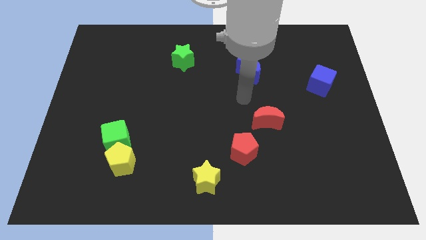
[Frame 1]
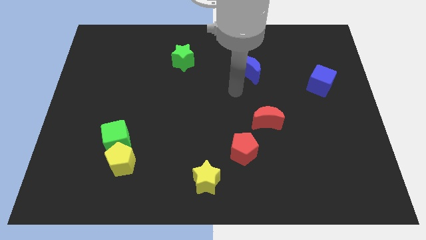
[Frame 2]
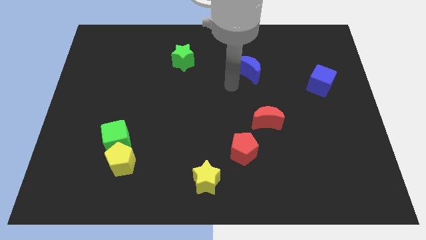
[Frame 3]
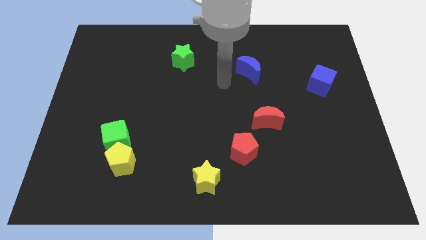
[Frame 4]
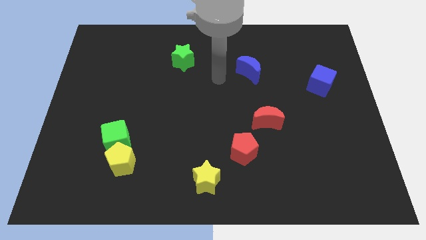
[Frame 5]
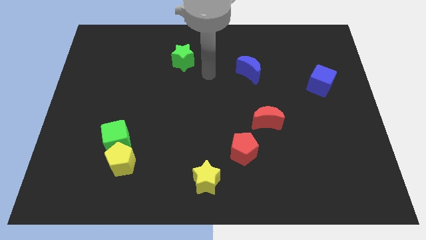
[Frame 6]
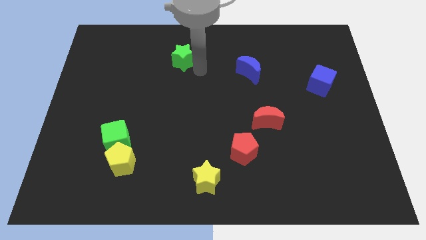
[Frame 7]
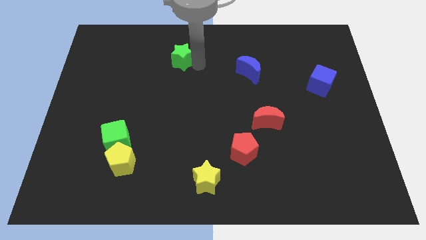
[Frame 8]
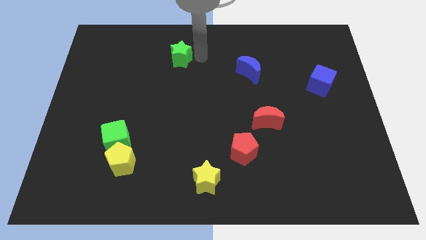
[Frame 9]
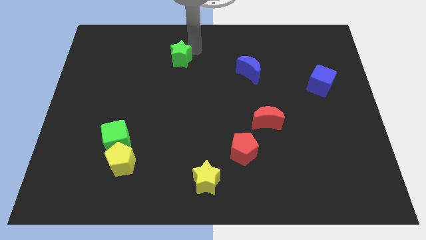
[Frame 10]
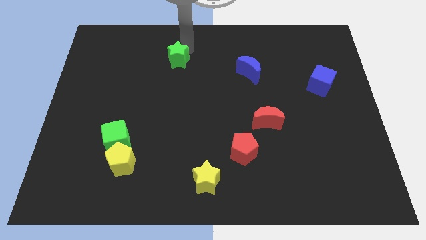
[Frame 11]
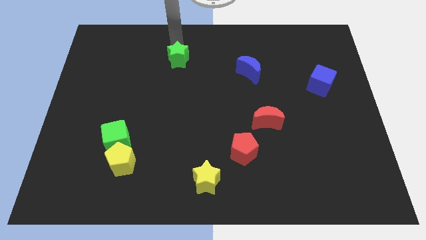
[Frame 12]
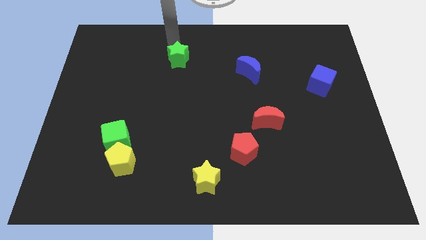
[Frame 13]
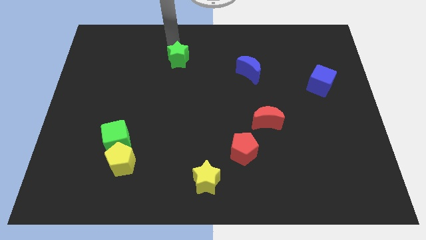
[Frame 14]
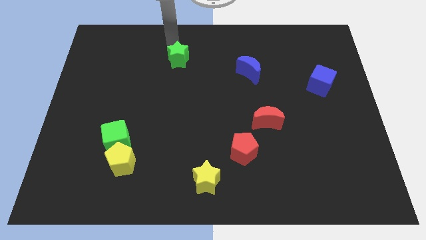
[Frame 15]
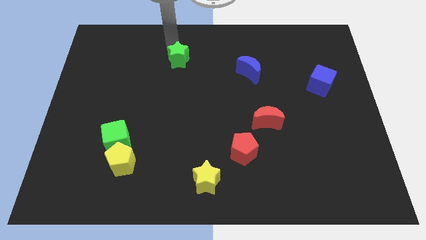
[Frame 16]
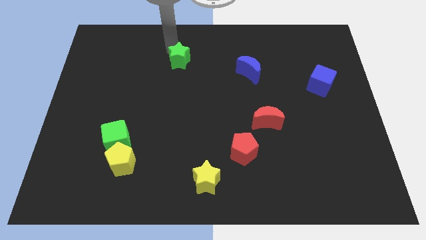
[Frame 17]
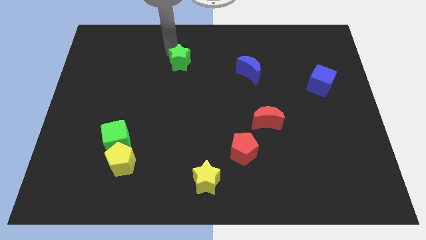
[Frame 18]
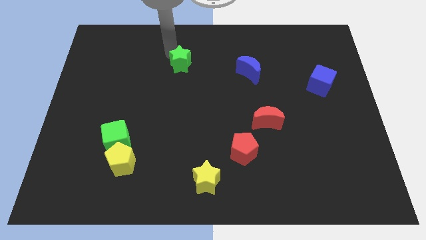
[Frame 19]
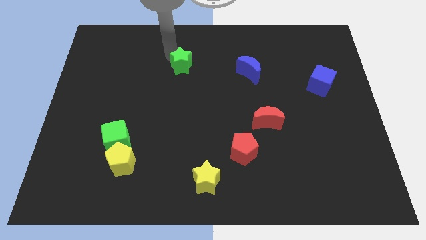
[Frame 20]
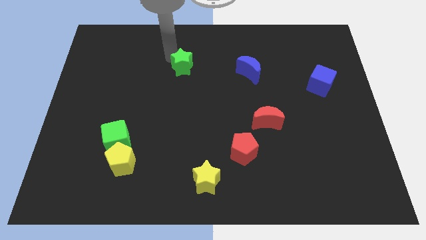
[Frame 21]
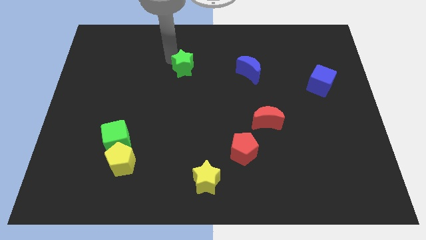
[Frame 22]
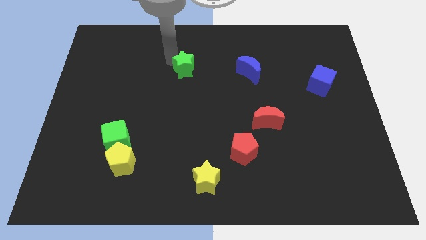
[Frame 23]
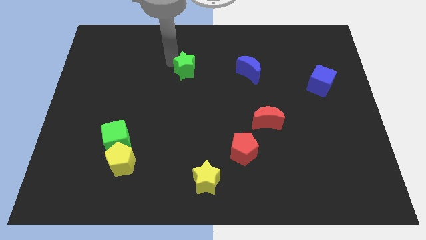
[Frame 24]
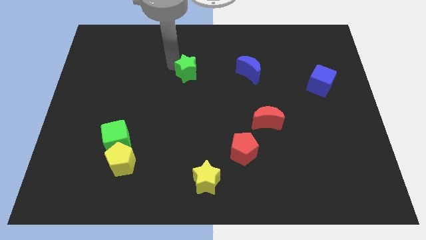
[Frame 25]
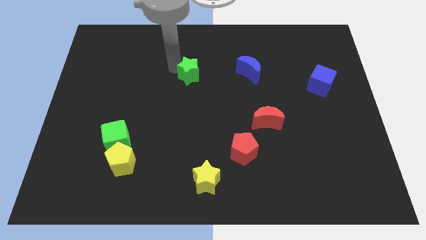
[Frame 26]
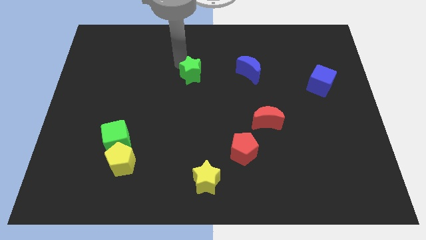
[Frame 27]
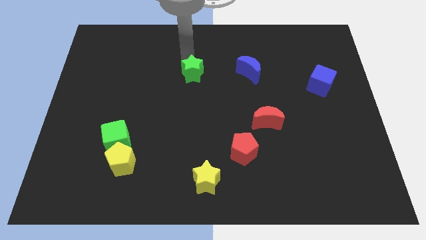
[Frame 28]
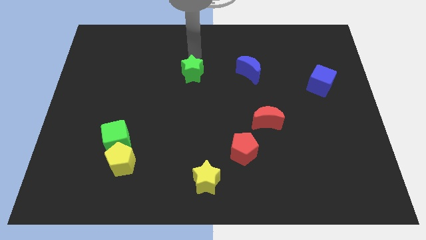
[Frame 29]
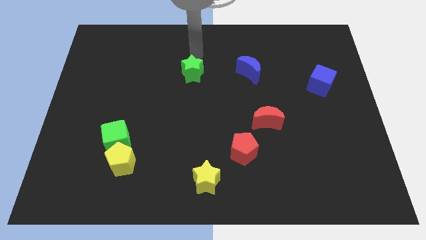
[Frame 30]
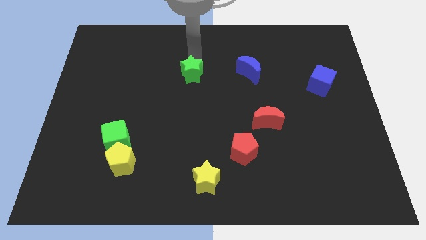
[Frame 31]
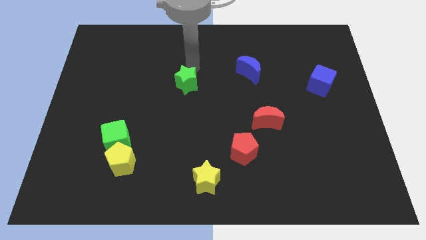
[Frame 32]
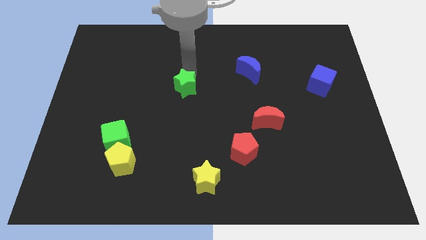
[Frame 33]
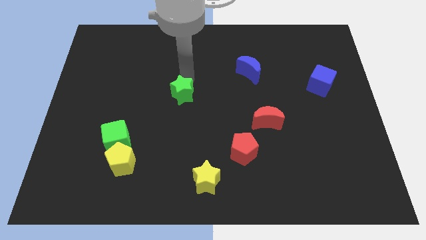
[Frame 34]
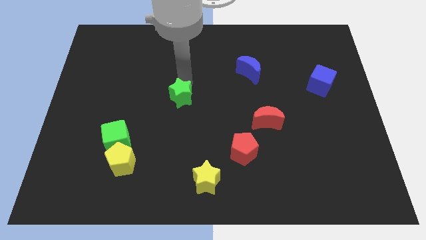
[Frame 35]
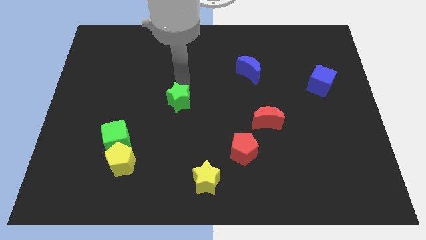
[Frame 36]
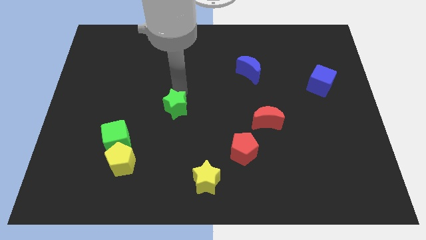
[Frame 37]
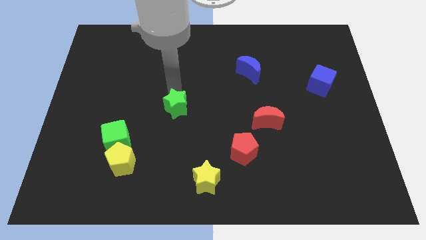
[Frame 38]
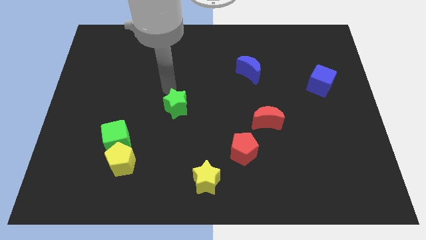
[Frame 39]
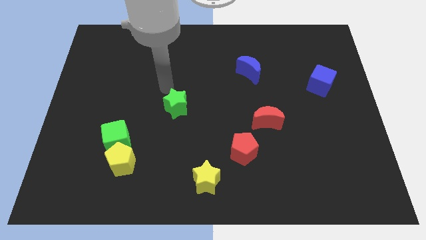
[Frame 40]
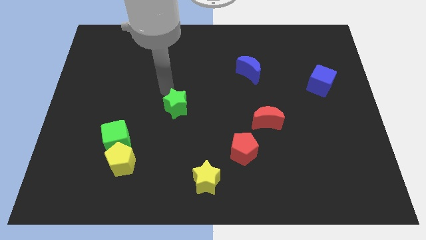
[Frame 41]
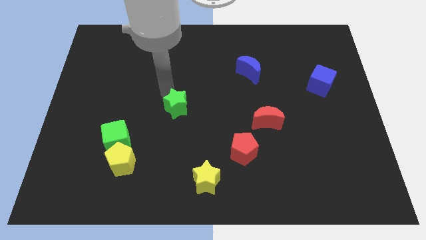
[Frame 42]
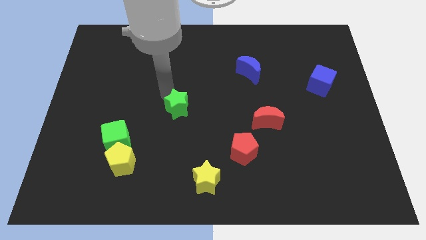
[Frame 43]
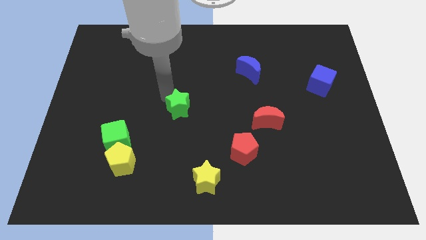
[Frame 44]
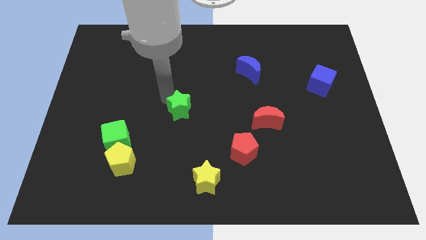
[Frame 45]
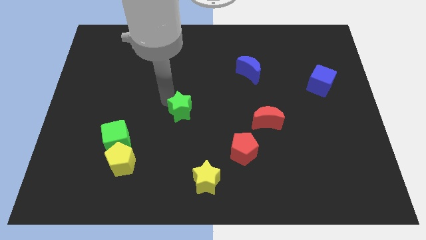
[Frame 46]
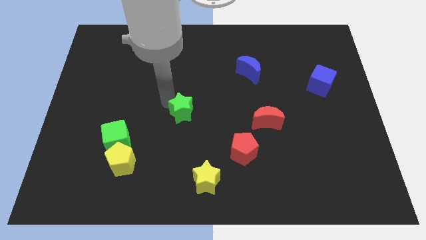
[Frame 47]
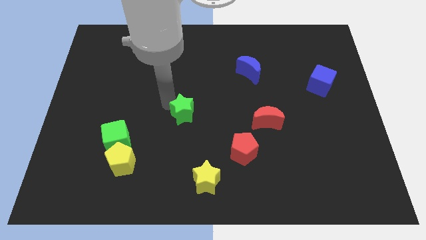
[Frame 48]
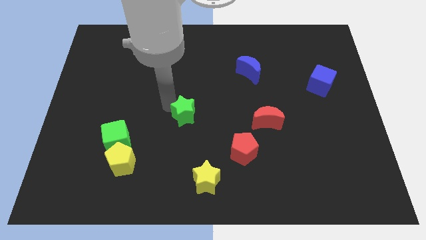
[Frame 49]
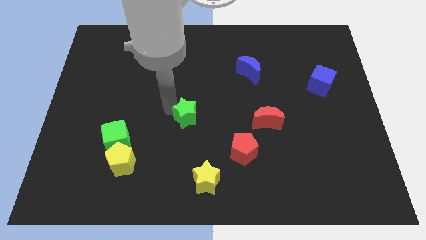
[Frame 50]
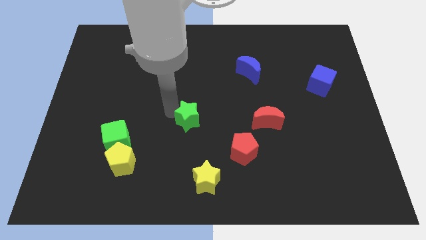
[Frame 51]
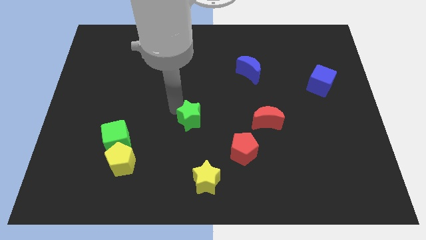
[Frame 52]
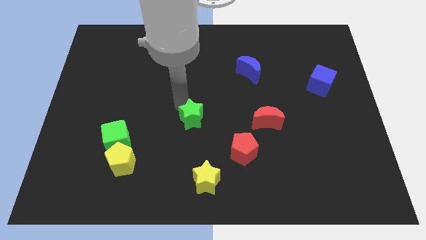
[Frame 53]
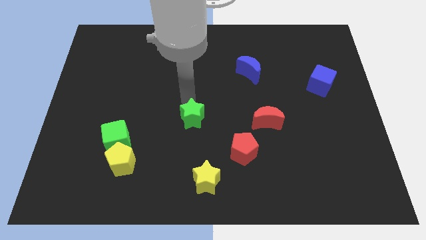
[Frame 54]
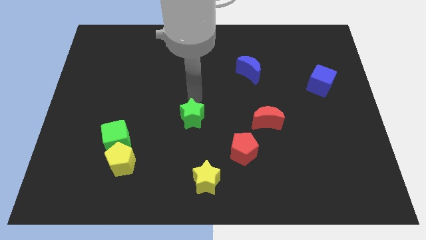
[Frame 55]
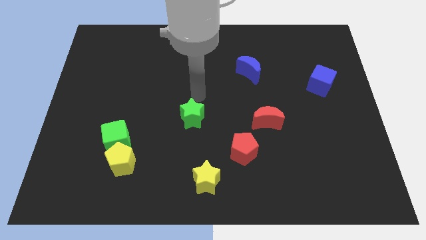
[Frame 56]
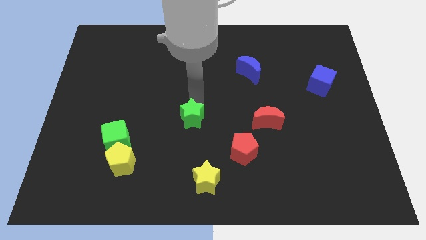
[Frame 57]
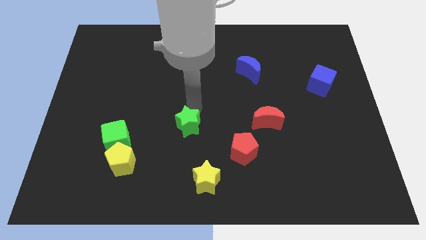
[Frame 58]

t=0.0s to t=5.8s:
slide the green star down

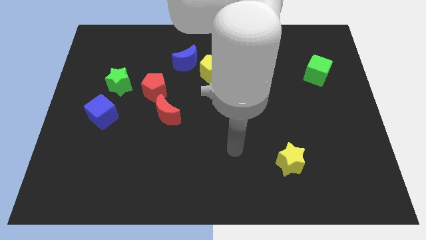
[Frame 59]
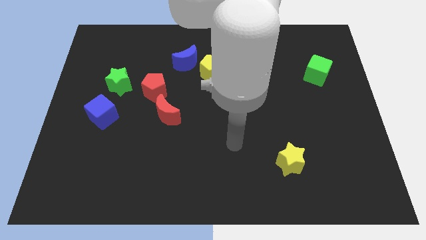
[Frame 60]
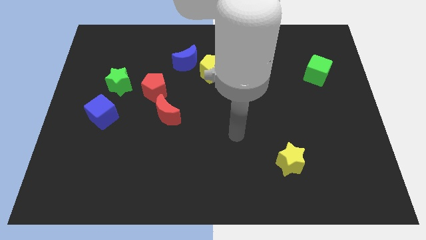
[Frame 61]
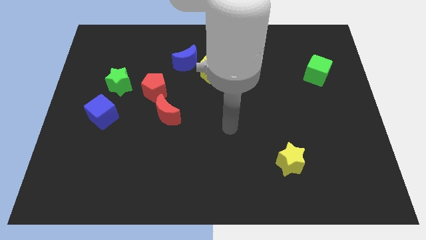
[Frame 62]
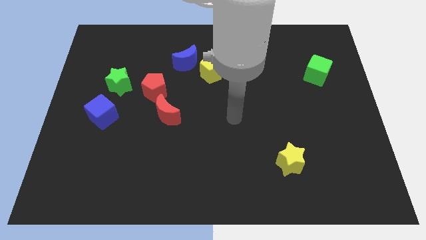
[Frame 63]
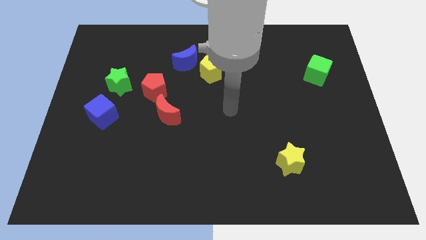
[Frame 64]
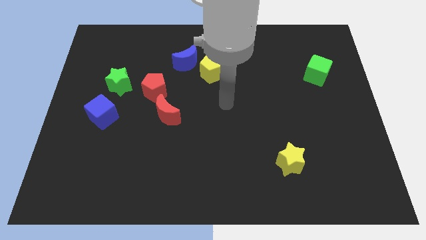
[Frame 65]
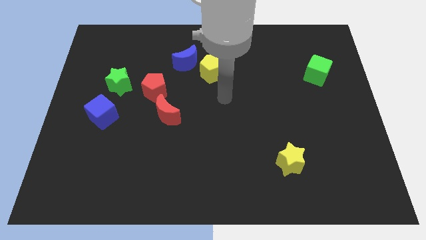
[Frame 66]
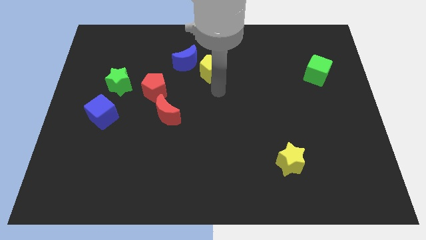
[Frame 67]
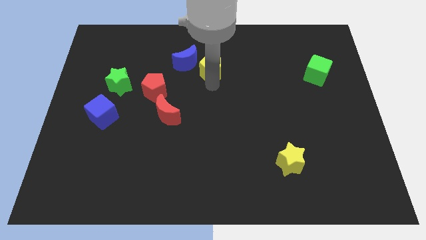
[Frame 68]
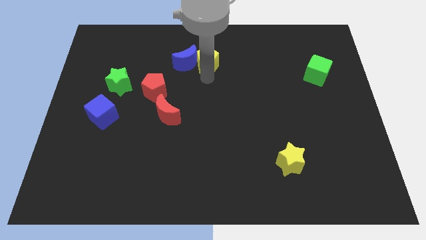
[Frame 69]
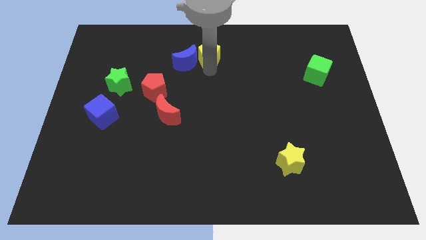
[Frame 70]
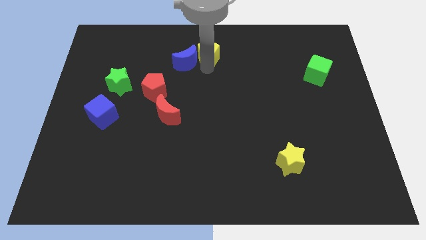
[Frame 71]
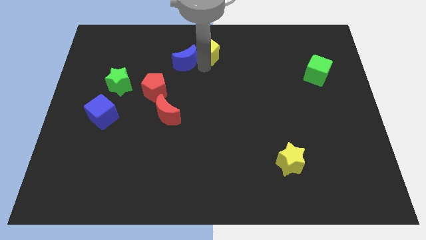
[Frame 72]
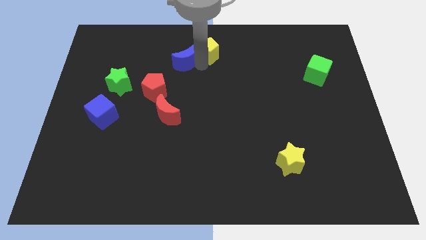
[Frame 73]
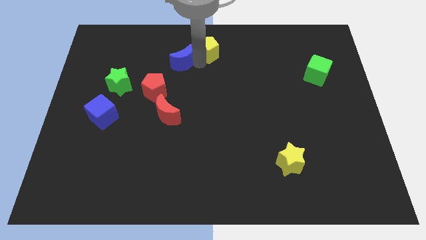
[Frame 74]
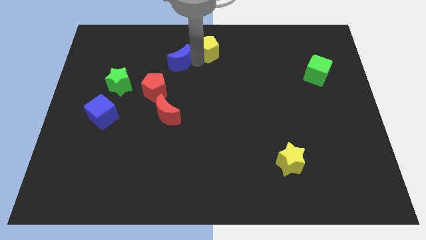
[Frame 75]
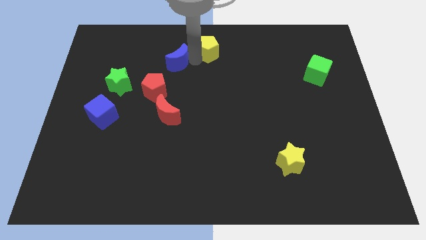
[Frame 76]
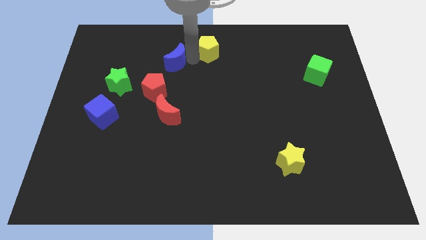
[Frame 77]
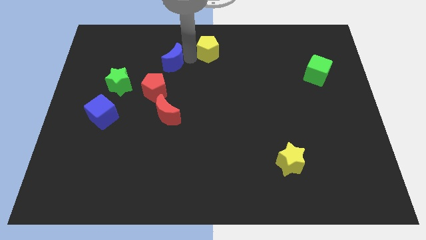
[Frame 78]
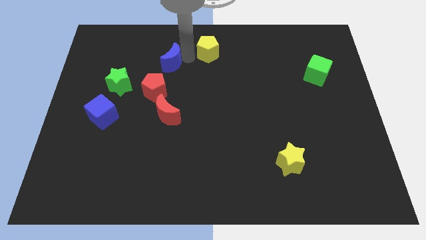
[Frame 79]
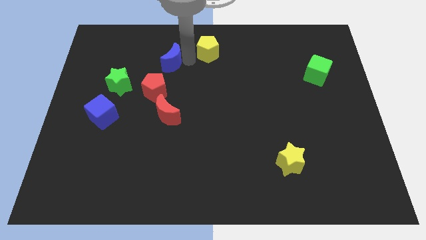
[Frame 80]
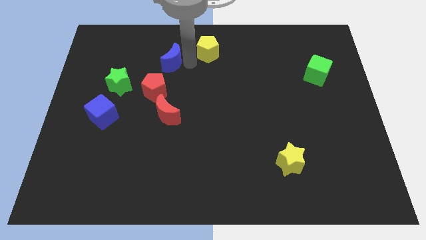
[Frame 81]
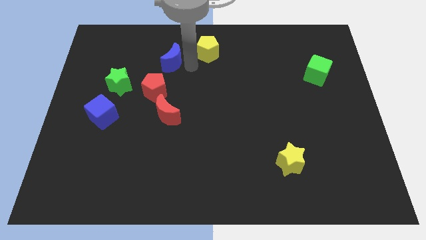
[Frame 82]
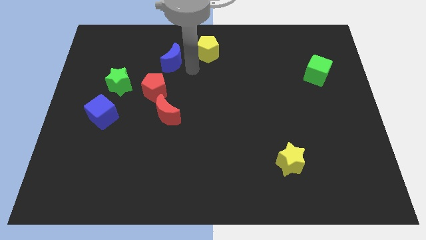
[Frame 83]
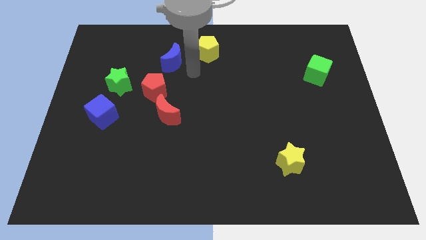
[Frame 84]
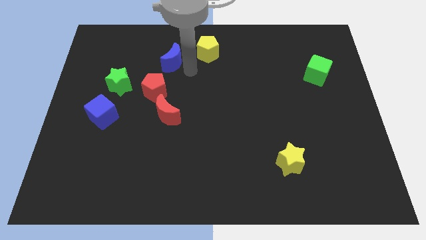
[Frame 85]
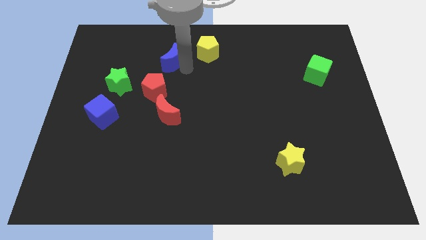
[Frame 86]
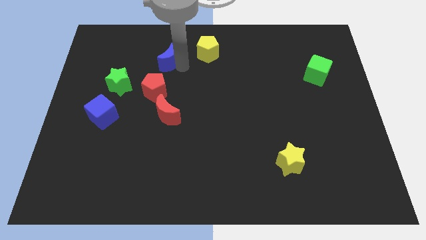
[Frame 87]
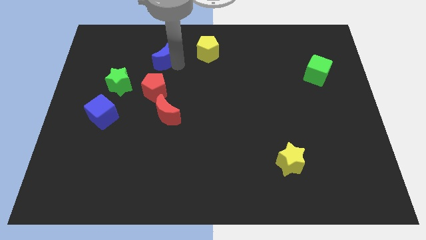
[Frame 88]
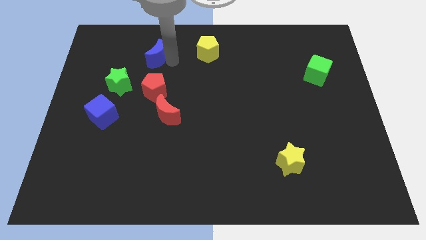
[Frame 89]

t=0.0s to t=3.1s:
slightly push the blue moon to the left
